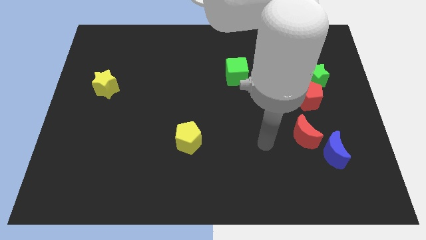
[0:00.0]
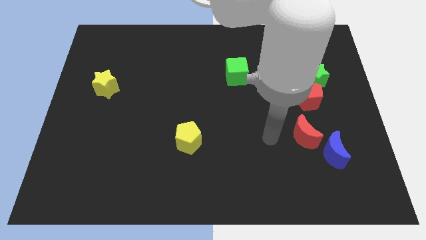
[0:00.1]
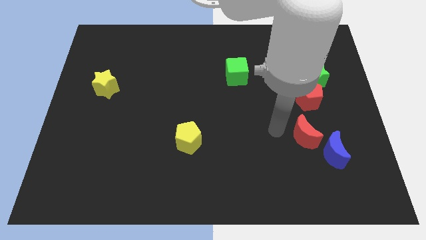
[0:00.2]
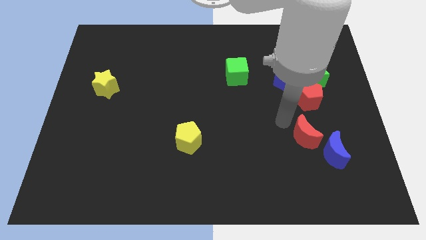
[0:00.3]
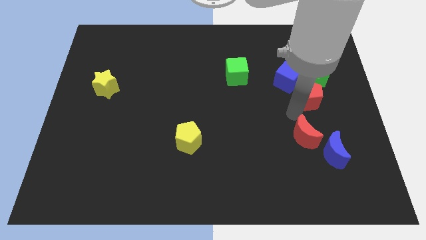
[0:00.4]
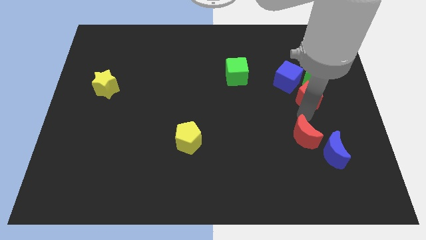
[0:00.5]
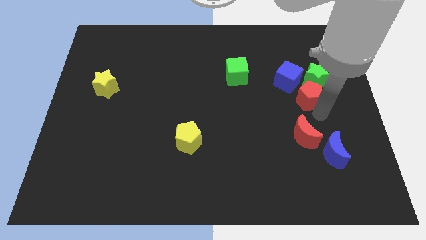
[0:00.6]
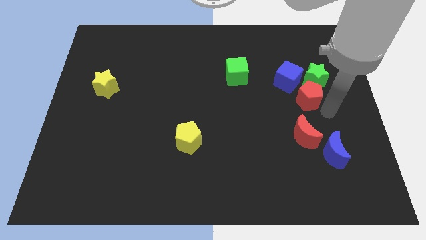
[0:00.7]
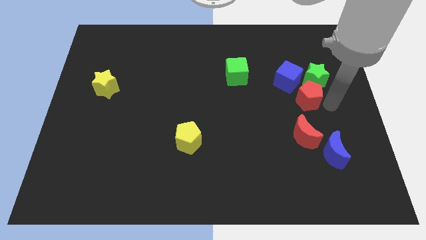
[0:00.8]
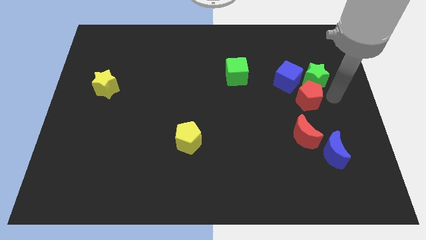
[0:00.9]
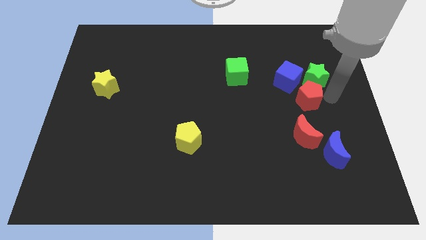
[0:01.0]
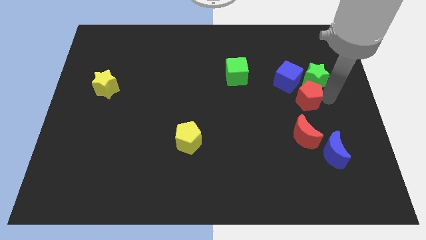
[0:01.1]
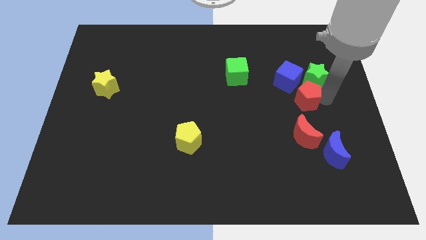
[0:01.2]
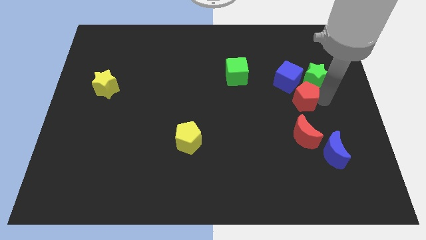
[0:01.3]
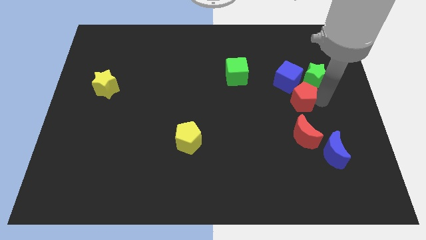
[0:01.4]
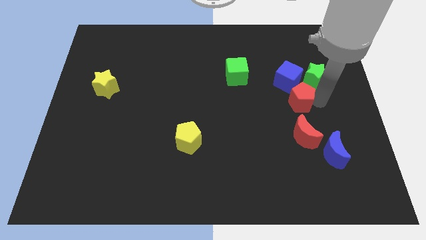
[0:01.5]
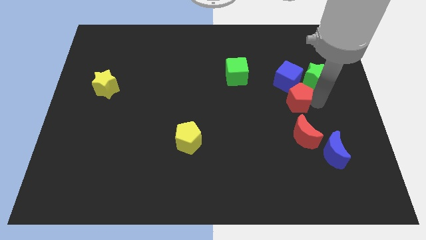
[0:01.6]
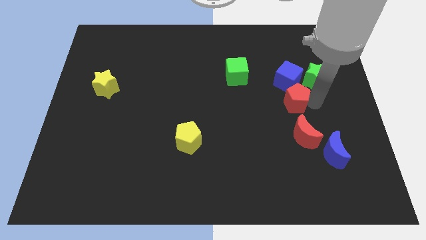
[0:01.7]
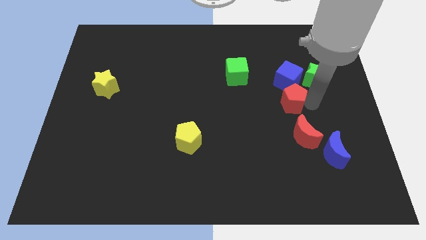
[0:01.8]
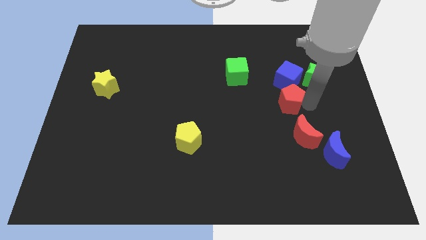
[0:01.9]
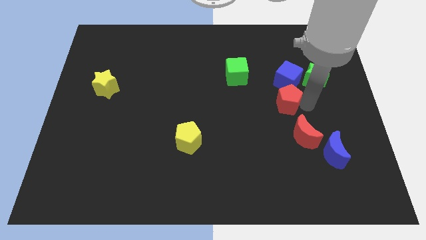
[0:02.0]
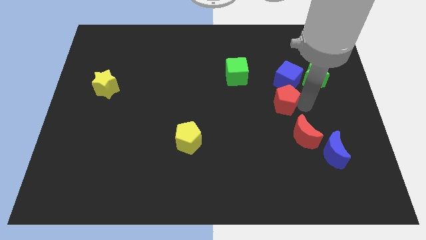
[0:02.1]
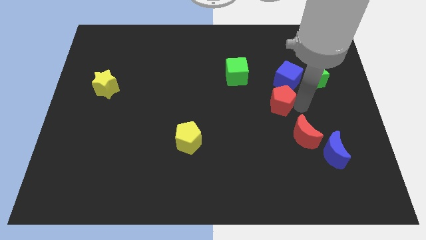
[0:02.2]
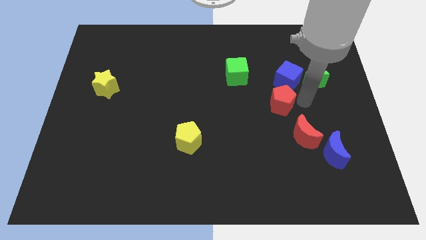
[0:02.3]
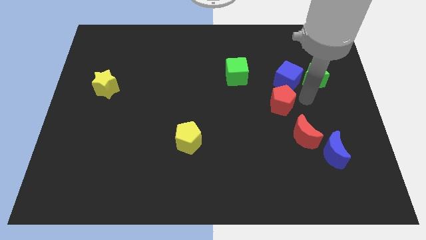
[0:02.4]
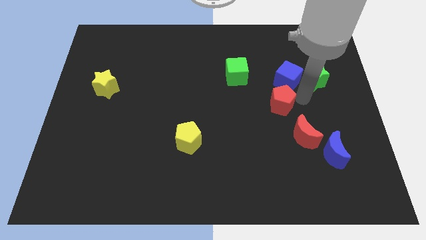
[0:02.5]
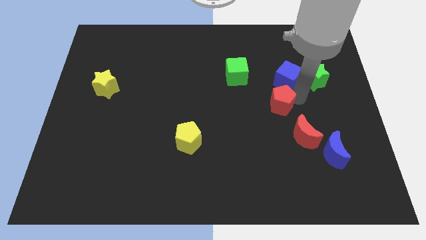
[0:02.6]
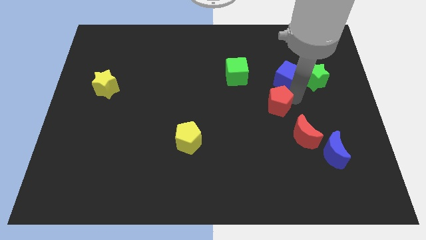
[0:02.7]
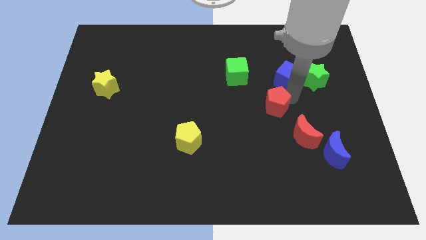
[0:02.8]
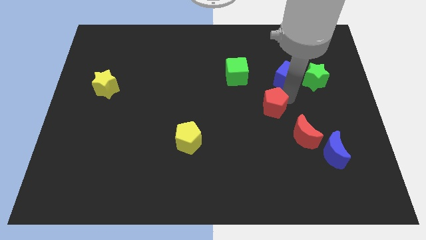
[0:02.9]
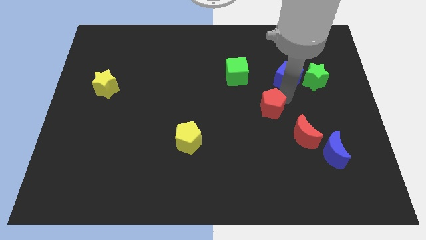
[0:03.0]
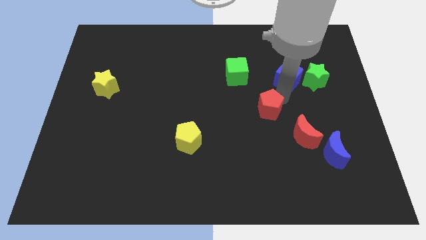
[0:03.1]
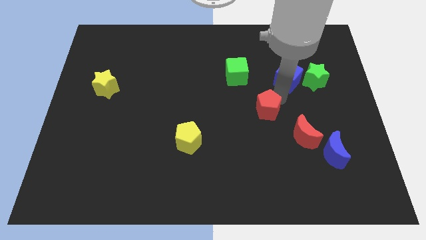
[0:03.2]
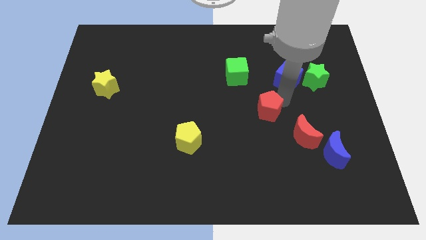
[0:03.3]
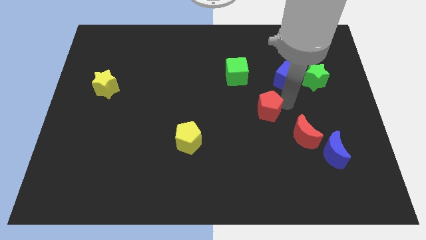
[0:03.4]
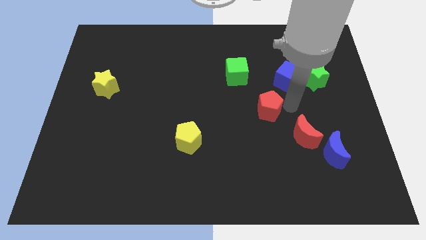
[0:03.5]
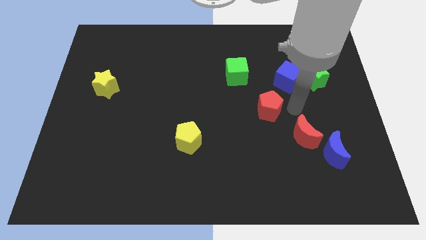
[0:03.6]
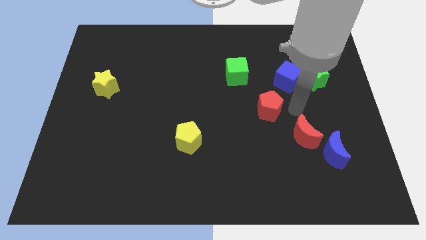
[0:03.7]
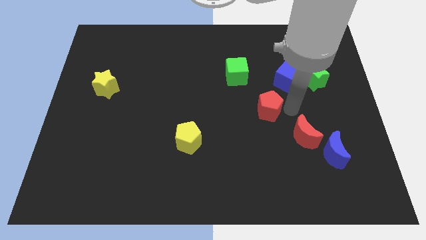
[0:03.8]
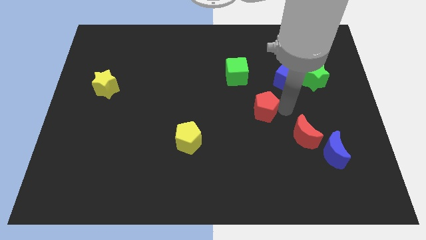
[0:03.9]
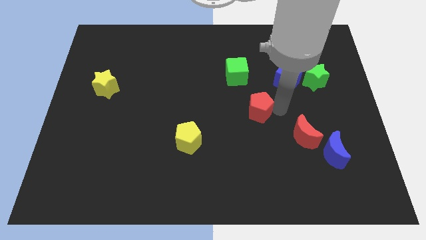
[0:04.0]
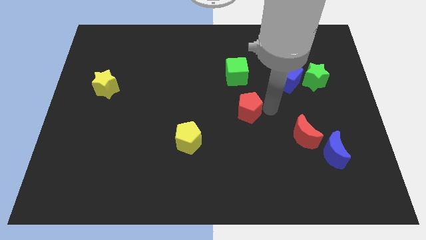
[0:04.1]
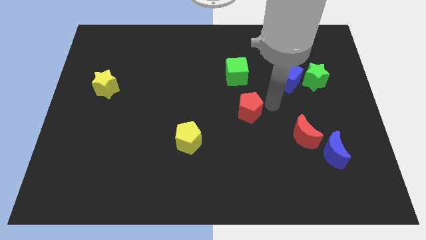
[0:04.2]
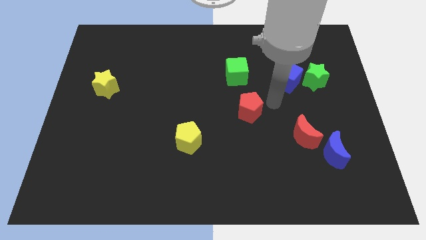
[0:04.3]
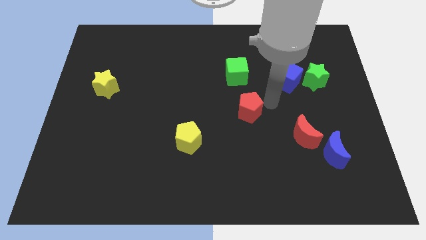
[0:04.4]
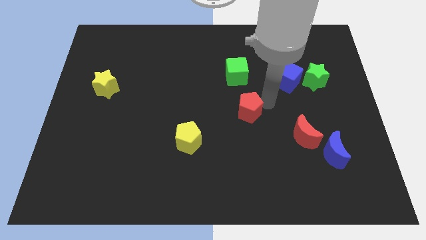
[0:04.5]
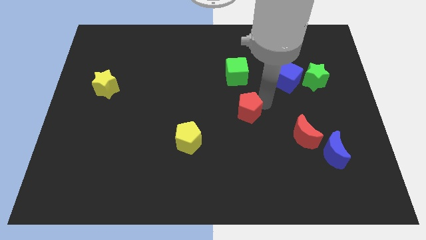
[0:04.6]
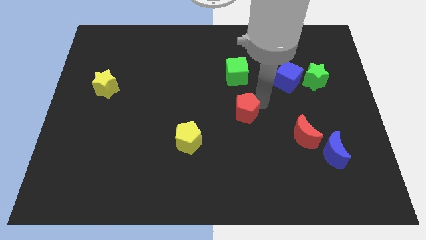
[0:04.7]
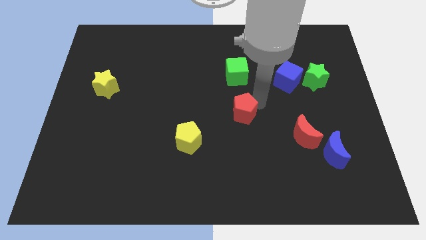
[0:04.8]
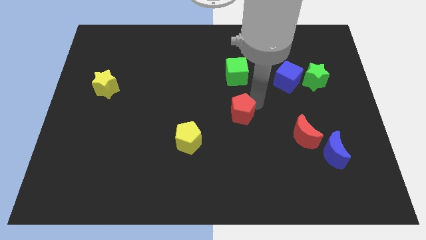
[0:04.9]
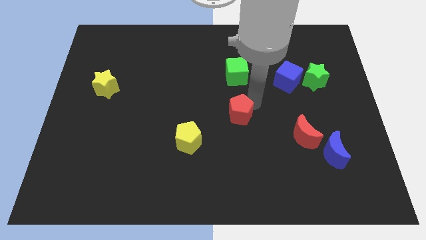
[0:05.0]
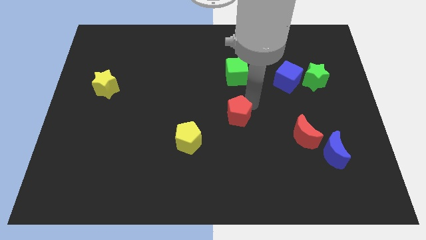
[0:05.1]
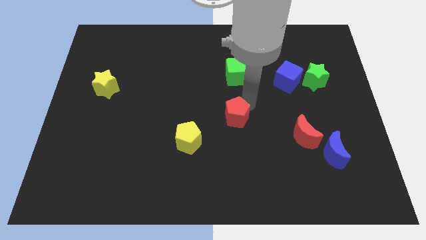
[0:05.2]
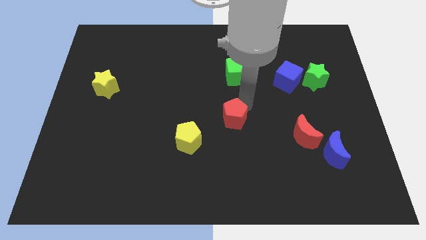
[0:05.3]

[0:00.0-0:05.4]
slide the red pentagon diagonally up and to the right of the yellow pentagon

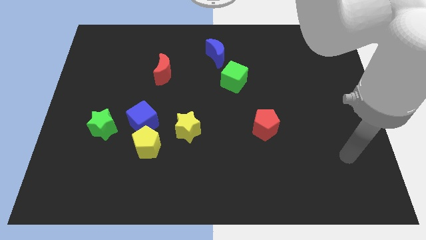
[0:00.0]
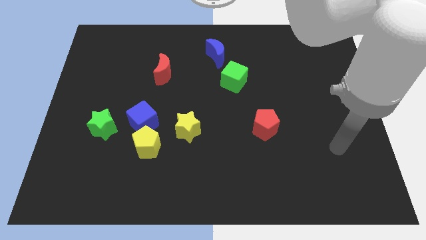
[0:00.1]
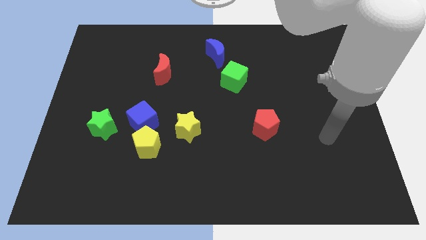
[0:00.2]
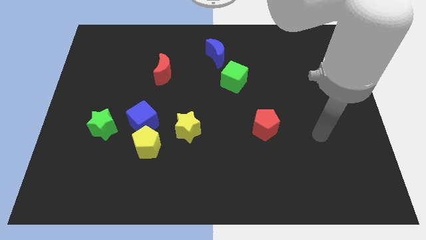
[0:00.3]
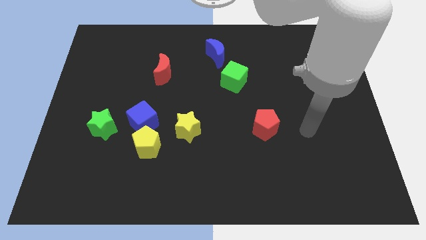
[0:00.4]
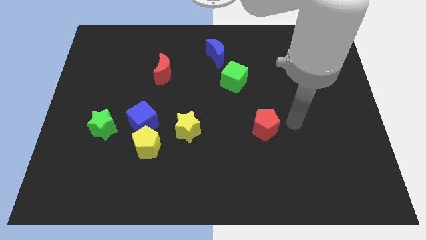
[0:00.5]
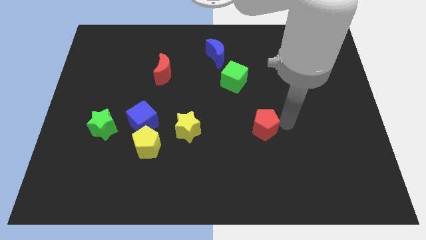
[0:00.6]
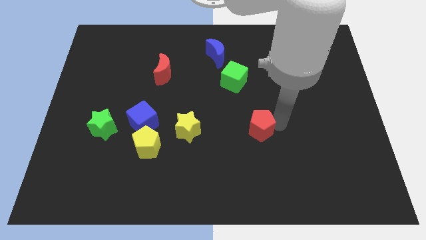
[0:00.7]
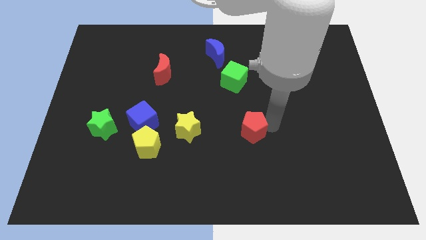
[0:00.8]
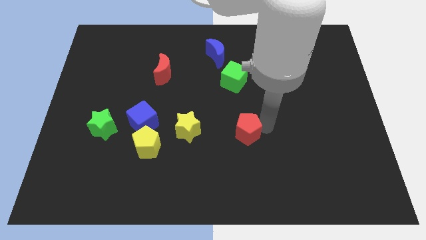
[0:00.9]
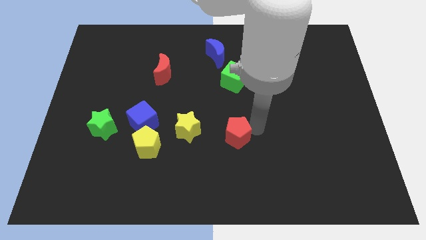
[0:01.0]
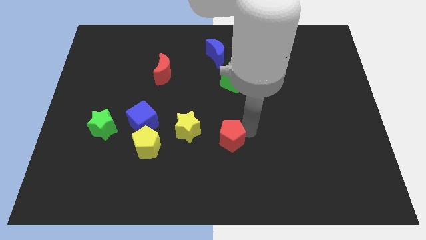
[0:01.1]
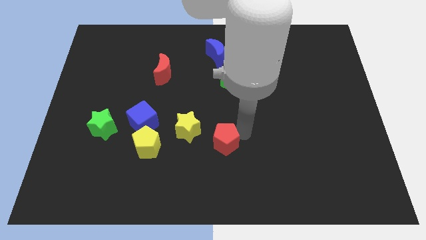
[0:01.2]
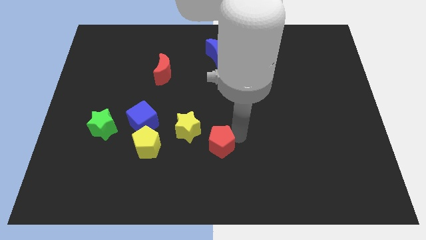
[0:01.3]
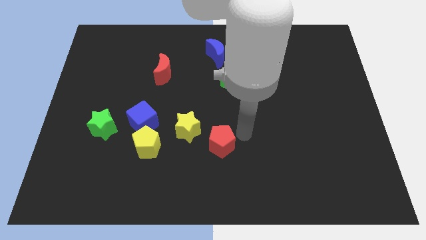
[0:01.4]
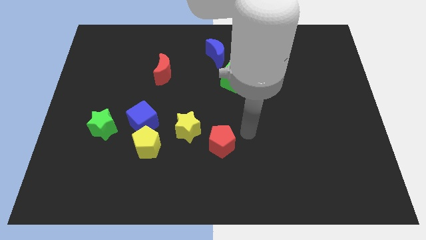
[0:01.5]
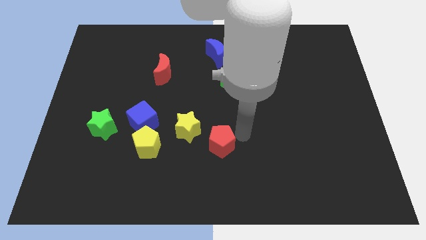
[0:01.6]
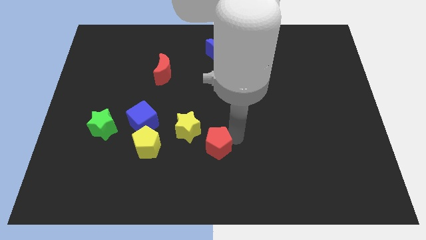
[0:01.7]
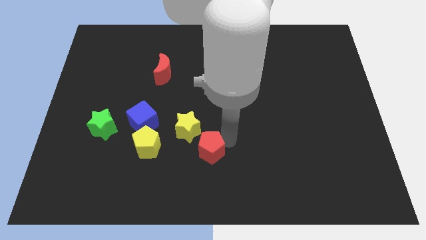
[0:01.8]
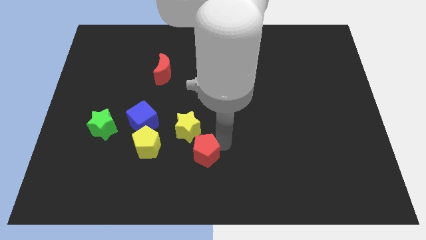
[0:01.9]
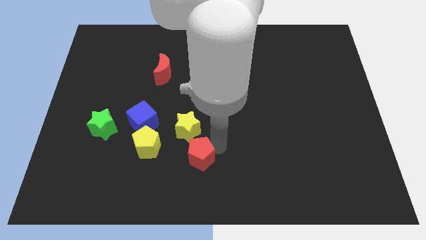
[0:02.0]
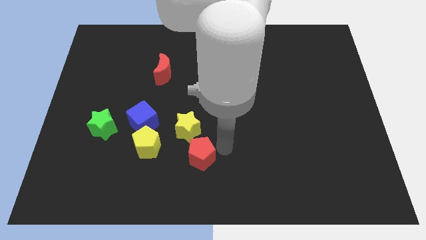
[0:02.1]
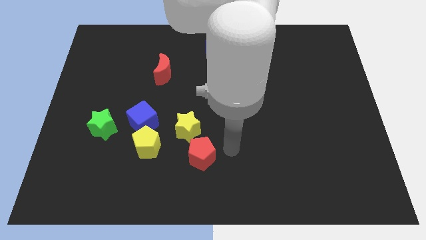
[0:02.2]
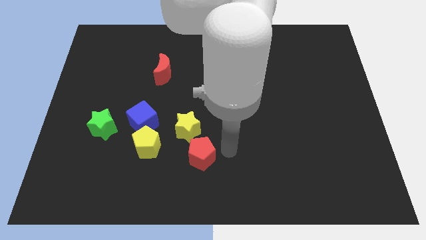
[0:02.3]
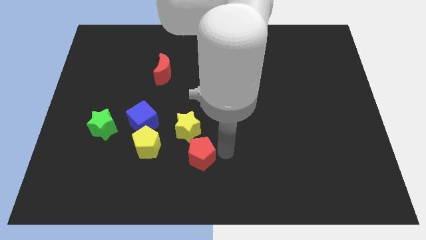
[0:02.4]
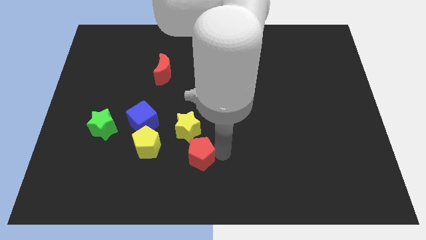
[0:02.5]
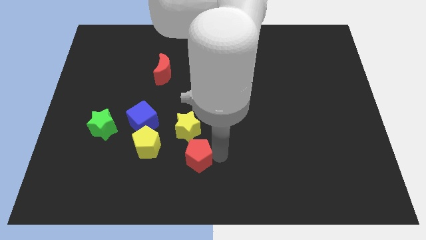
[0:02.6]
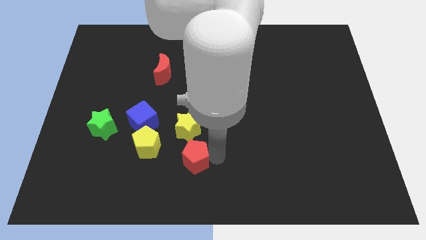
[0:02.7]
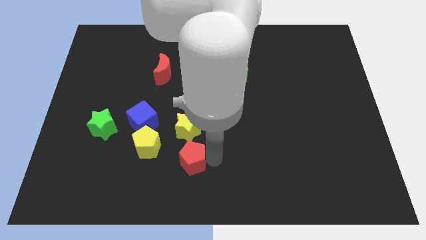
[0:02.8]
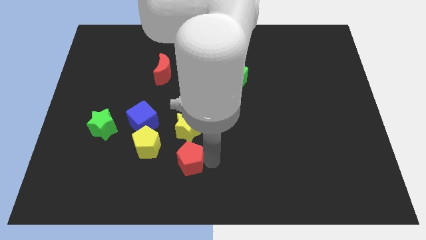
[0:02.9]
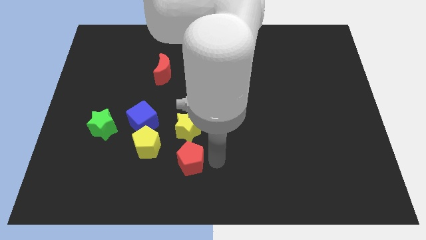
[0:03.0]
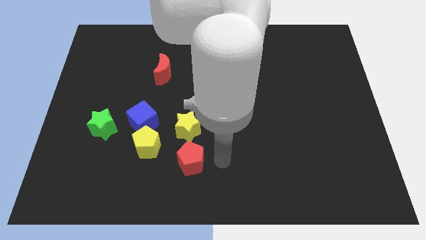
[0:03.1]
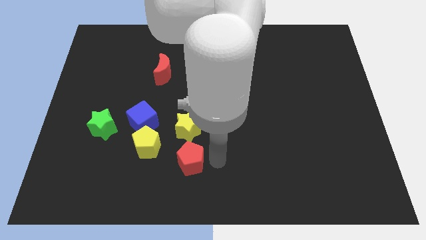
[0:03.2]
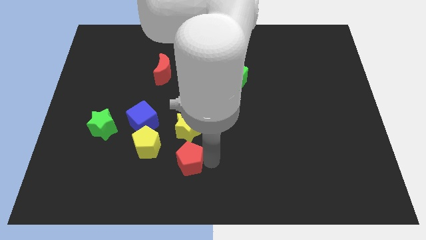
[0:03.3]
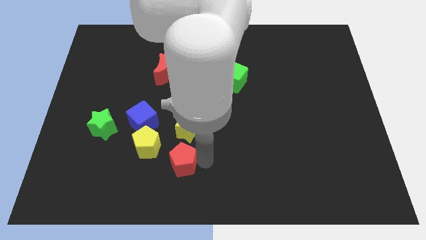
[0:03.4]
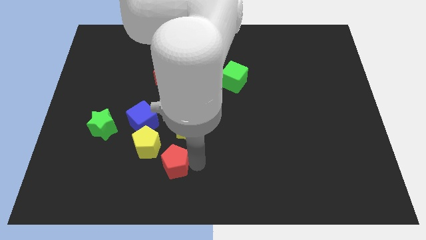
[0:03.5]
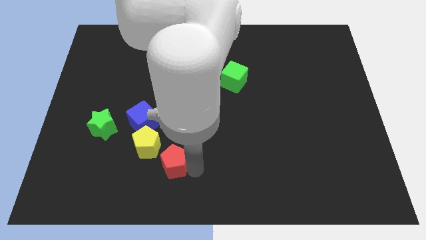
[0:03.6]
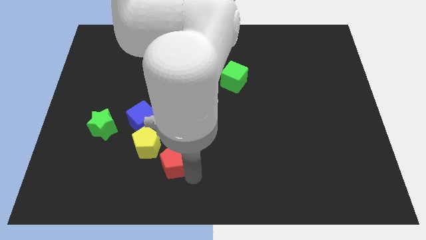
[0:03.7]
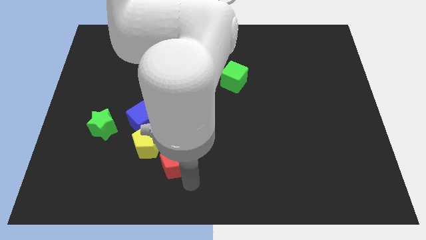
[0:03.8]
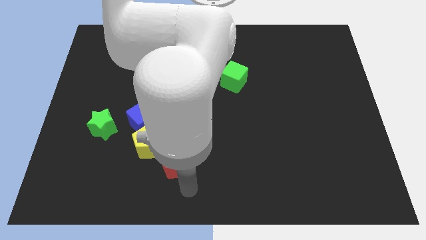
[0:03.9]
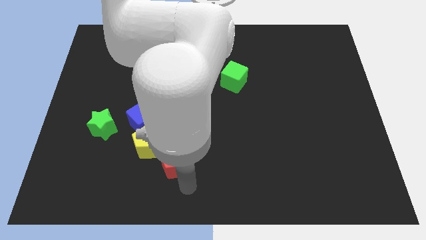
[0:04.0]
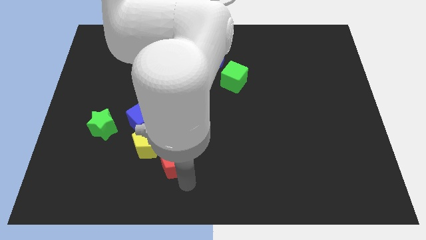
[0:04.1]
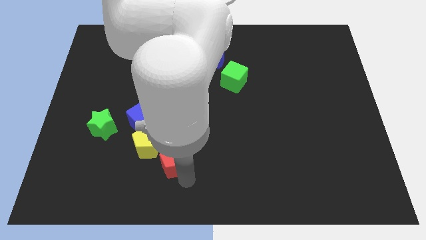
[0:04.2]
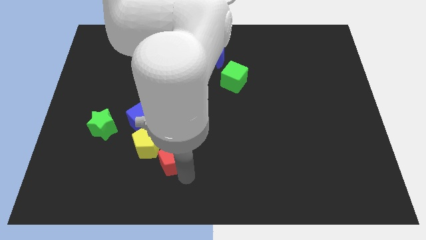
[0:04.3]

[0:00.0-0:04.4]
slide the red pentagon to the bottom right of the blue cube
